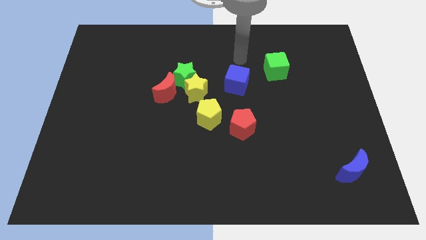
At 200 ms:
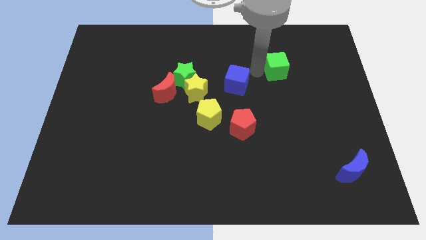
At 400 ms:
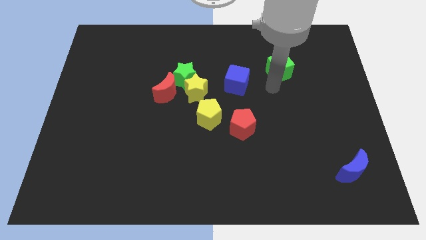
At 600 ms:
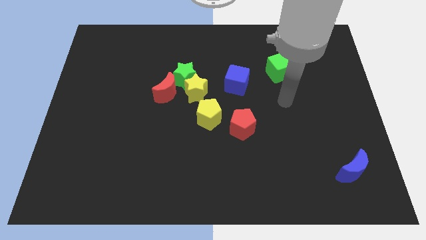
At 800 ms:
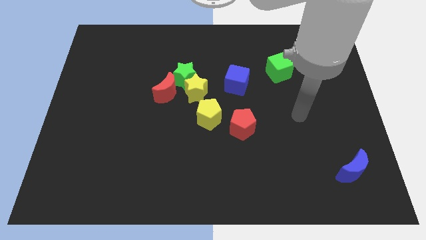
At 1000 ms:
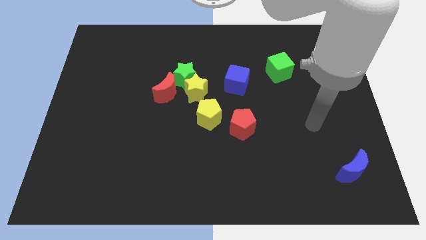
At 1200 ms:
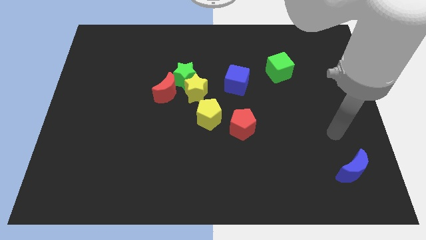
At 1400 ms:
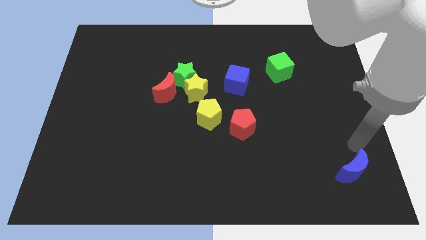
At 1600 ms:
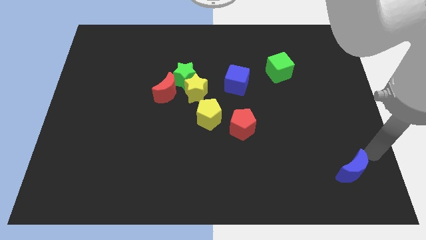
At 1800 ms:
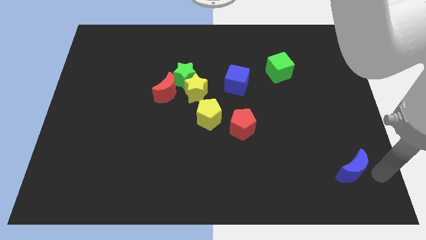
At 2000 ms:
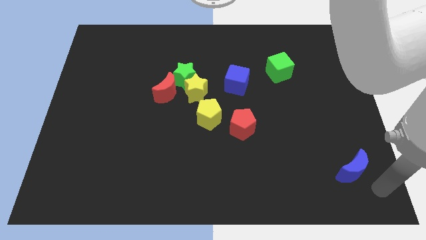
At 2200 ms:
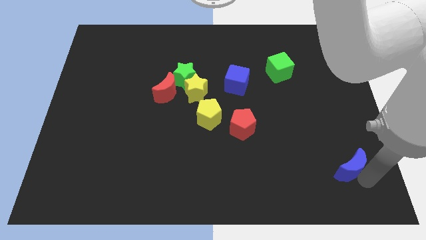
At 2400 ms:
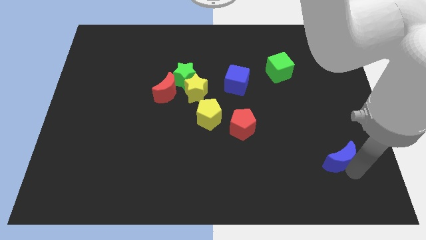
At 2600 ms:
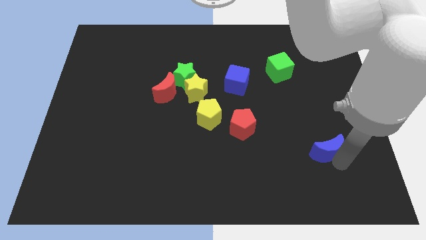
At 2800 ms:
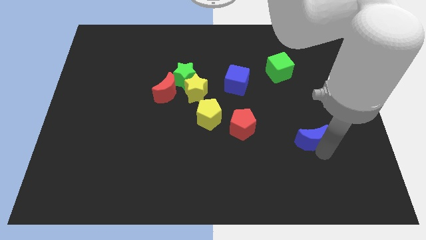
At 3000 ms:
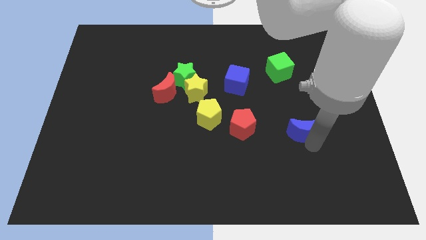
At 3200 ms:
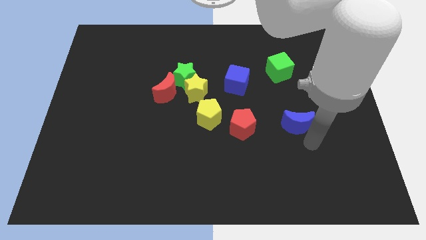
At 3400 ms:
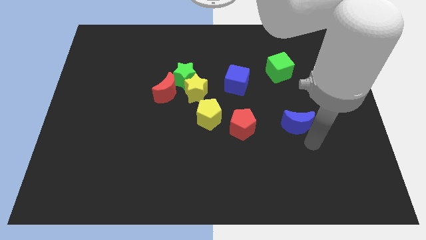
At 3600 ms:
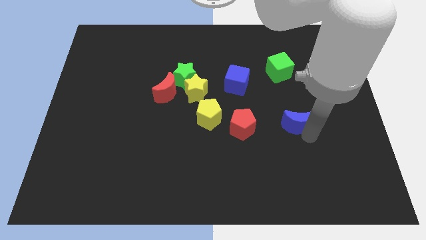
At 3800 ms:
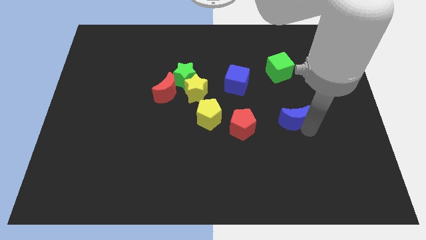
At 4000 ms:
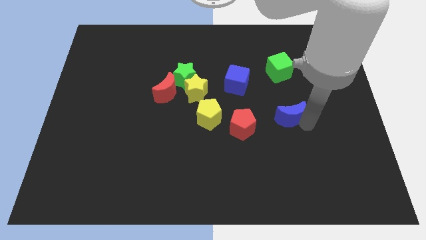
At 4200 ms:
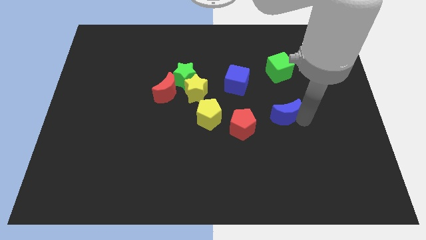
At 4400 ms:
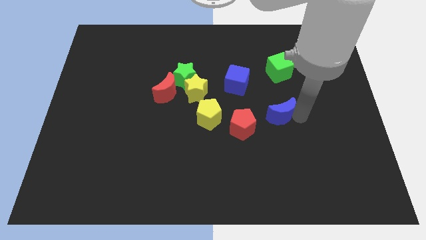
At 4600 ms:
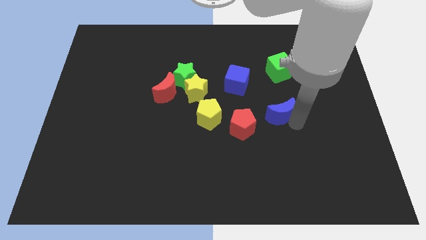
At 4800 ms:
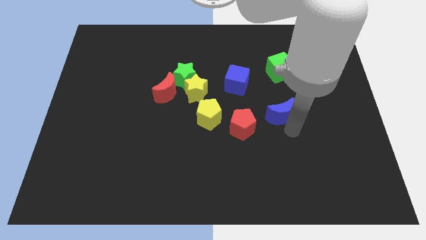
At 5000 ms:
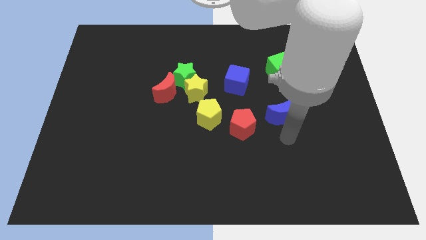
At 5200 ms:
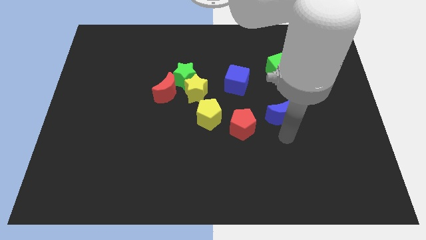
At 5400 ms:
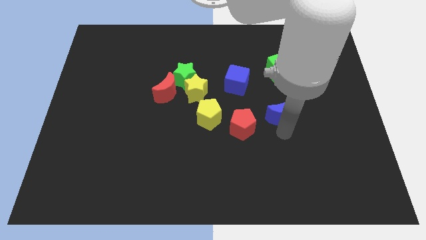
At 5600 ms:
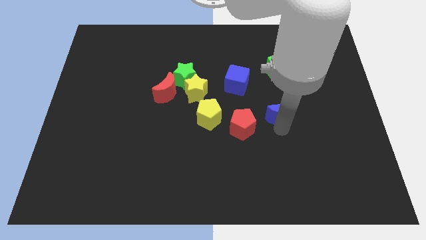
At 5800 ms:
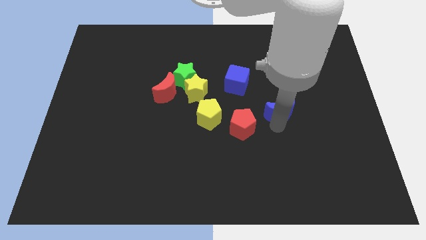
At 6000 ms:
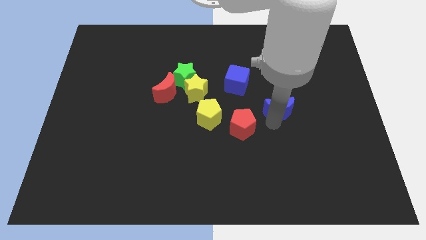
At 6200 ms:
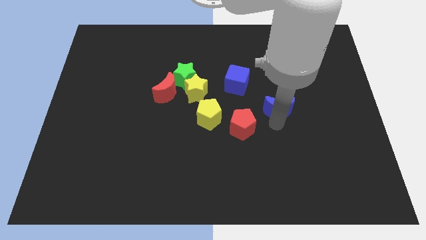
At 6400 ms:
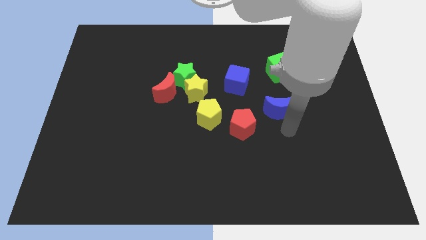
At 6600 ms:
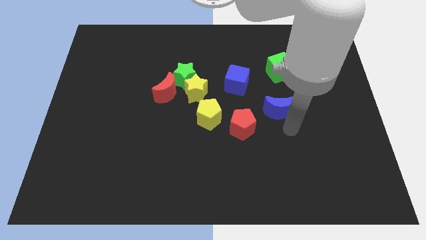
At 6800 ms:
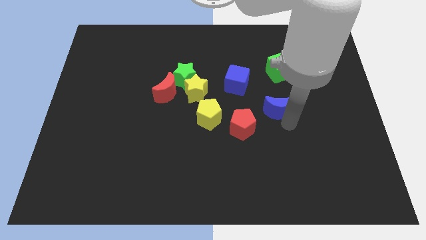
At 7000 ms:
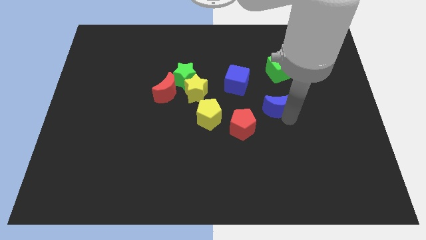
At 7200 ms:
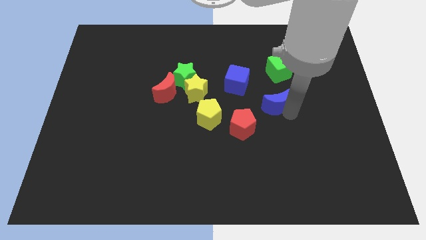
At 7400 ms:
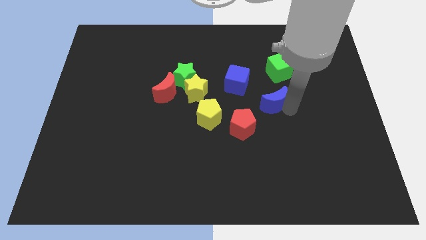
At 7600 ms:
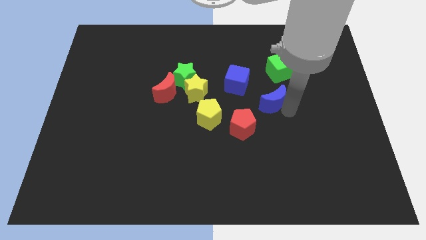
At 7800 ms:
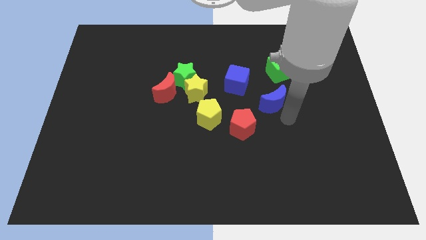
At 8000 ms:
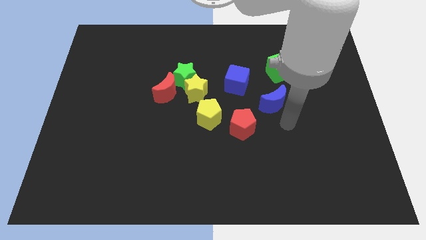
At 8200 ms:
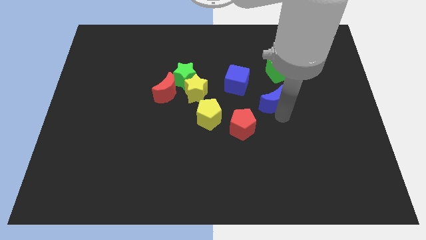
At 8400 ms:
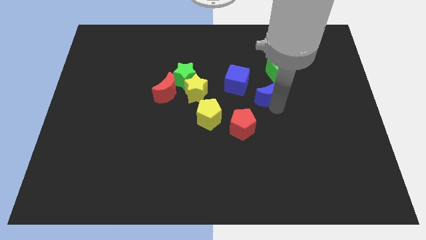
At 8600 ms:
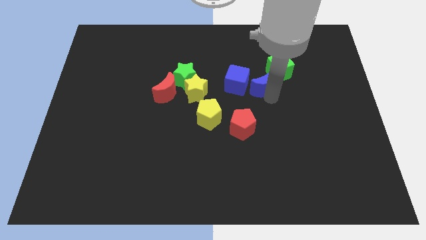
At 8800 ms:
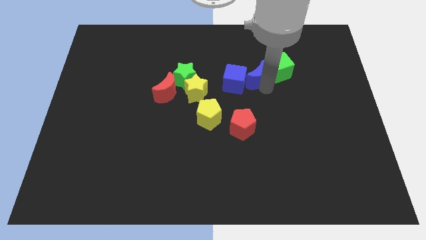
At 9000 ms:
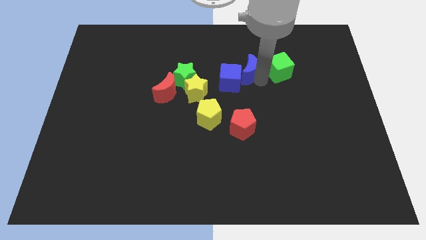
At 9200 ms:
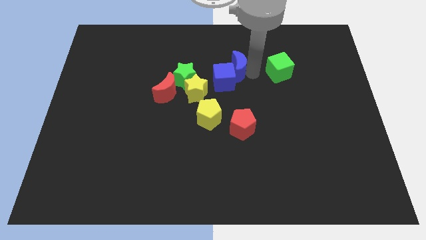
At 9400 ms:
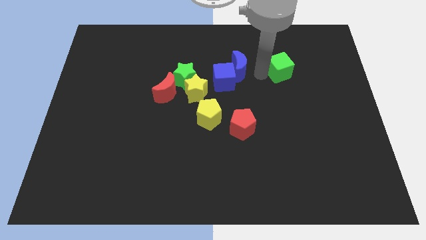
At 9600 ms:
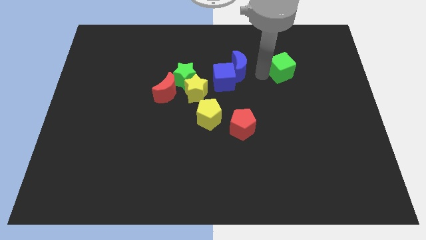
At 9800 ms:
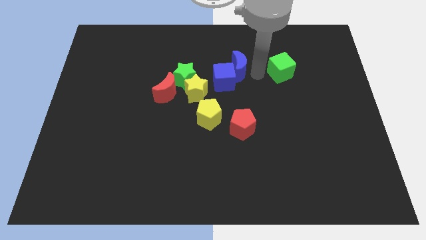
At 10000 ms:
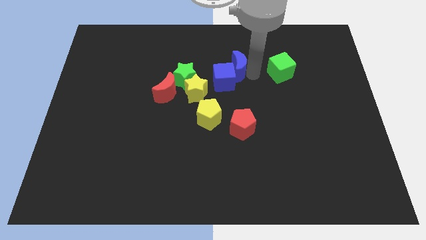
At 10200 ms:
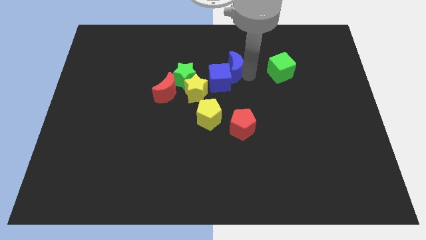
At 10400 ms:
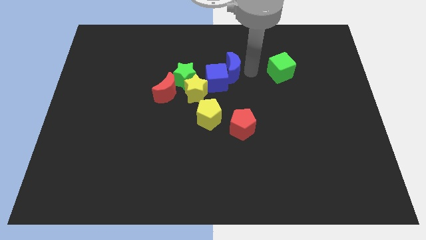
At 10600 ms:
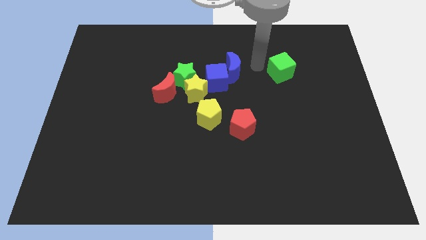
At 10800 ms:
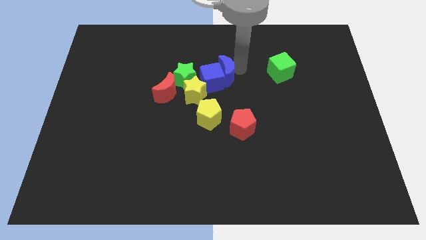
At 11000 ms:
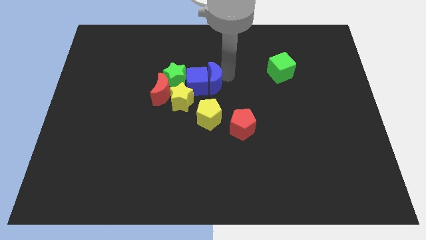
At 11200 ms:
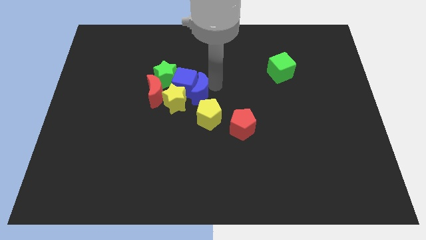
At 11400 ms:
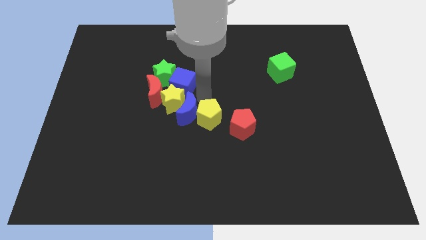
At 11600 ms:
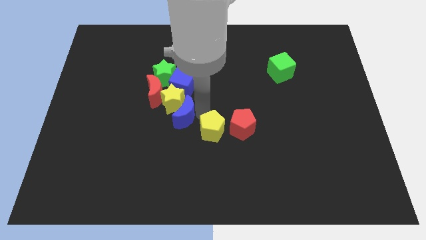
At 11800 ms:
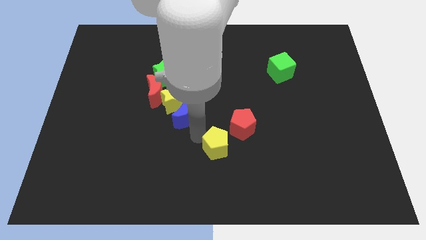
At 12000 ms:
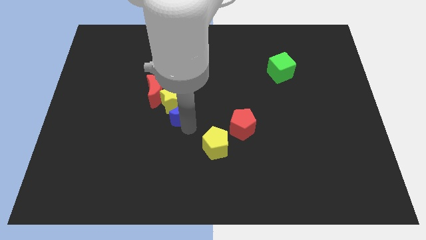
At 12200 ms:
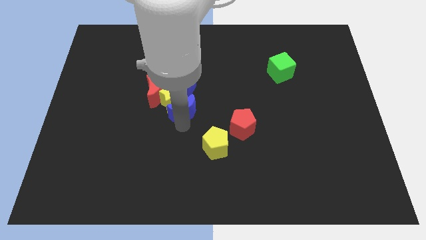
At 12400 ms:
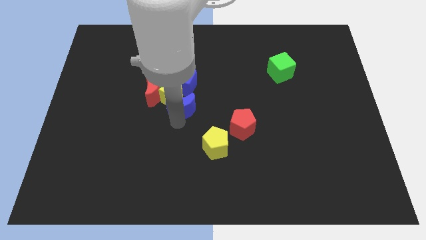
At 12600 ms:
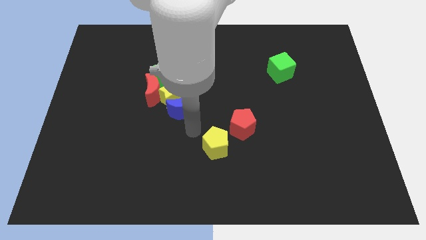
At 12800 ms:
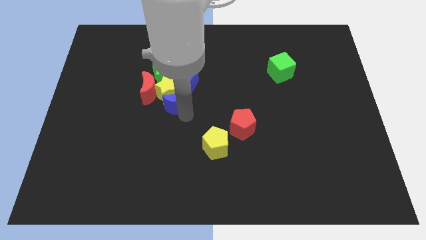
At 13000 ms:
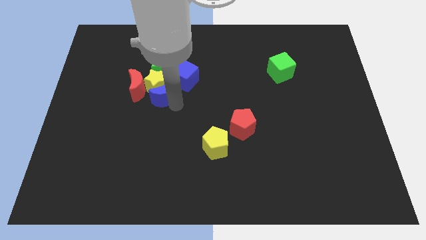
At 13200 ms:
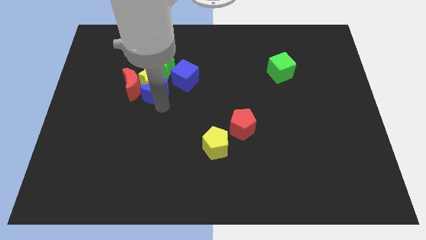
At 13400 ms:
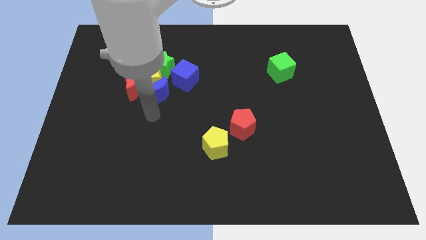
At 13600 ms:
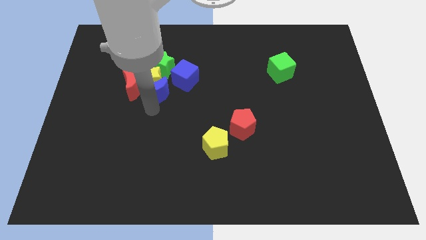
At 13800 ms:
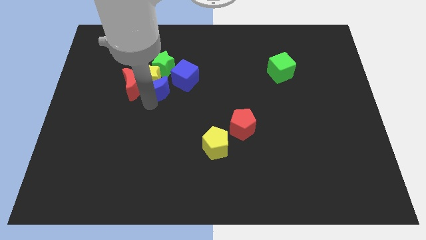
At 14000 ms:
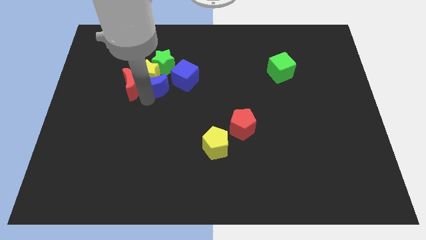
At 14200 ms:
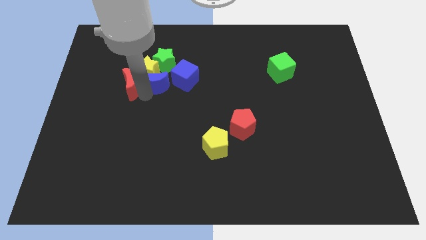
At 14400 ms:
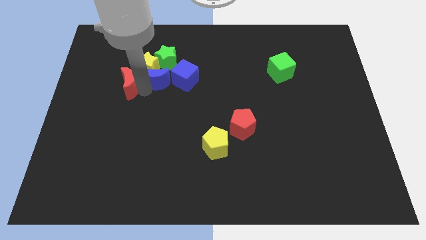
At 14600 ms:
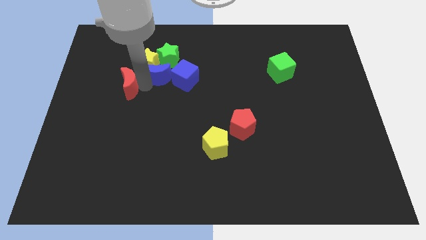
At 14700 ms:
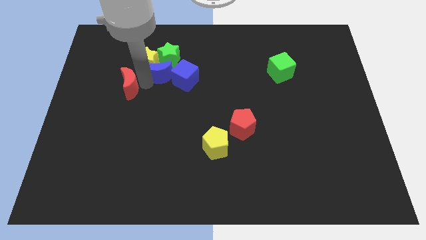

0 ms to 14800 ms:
push the blue moon towards the green star

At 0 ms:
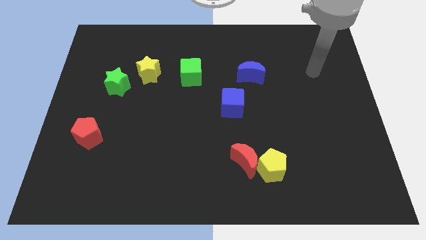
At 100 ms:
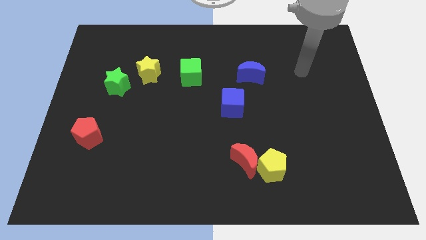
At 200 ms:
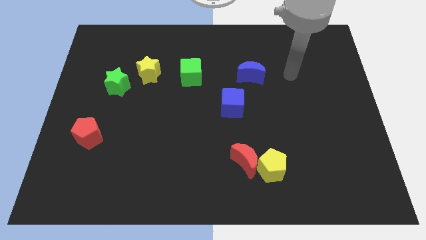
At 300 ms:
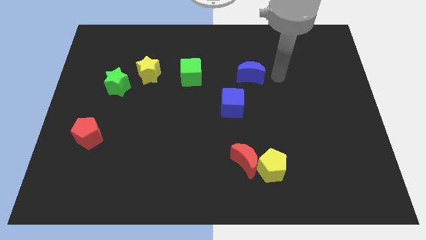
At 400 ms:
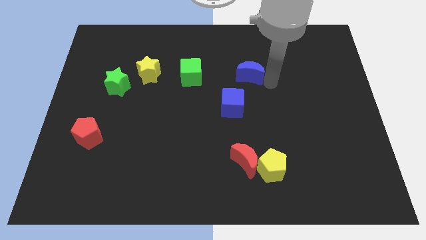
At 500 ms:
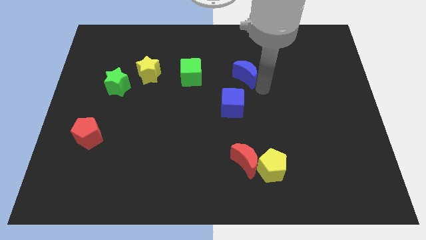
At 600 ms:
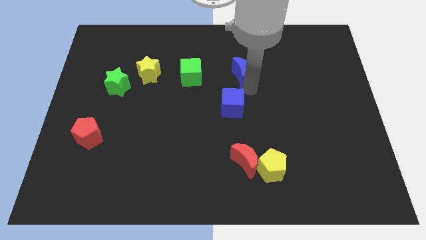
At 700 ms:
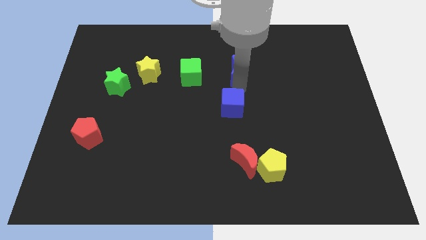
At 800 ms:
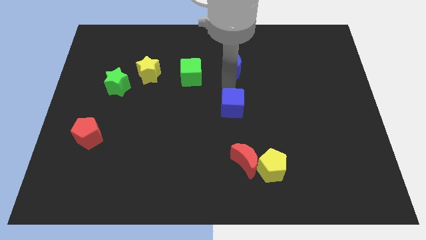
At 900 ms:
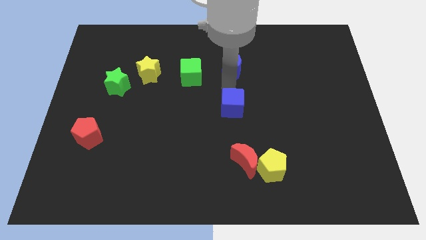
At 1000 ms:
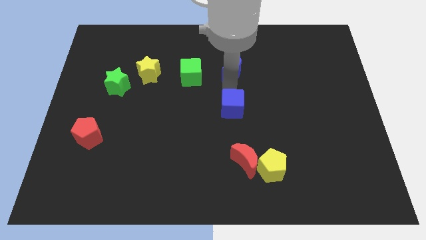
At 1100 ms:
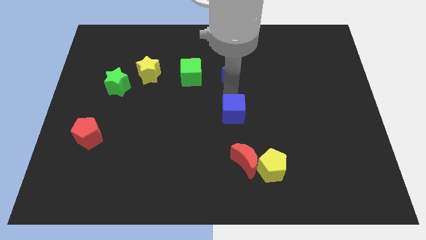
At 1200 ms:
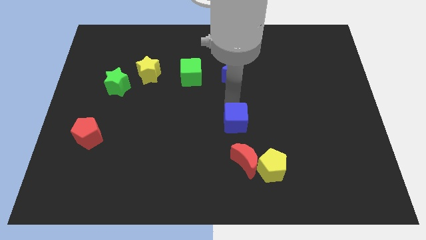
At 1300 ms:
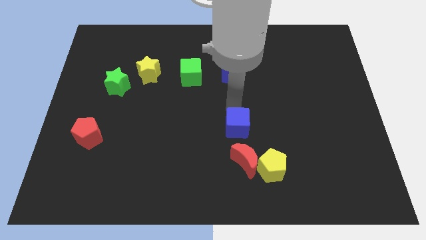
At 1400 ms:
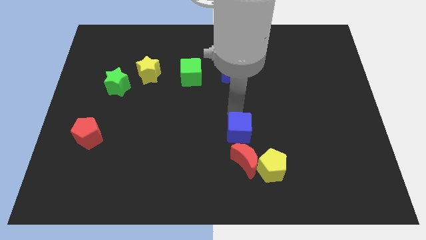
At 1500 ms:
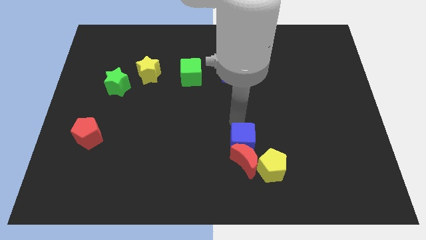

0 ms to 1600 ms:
put the blue cube next to the red moon
